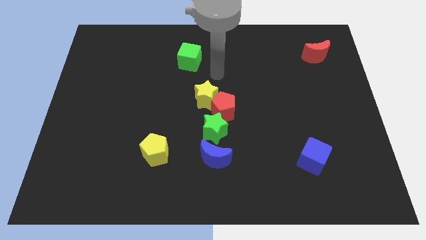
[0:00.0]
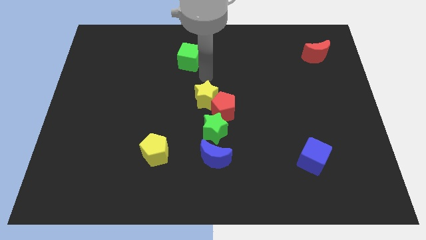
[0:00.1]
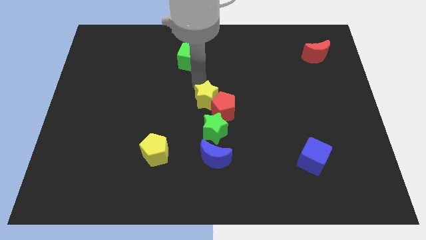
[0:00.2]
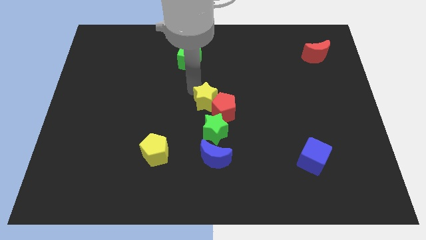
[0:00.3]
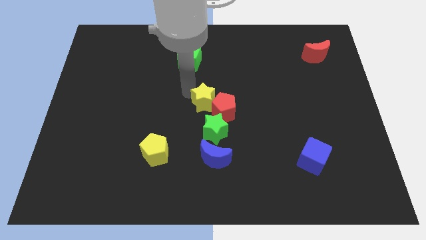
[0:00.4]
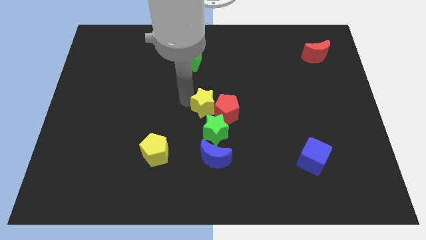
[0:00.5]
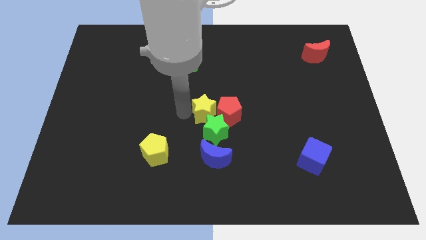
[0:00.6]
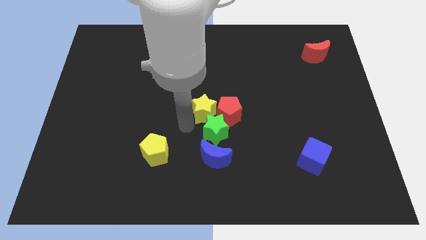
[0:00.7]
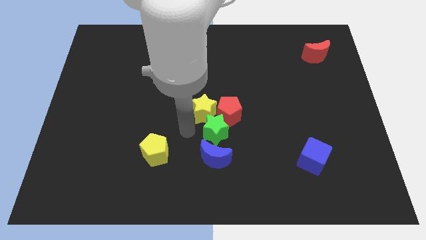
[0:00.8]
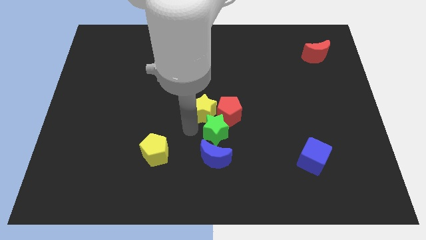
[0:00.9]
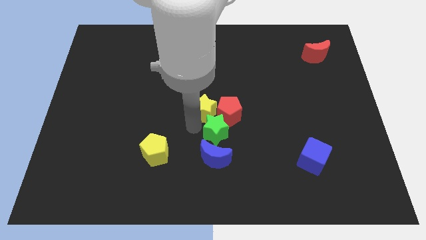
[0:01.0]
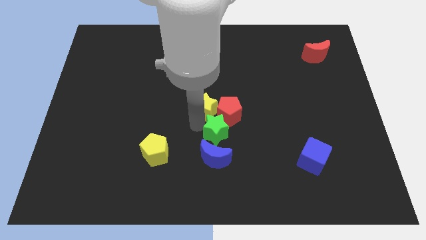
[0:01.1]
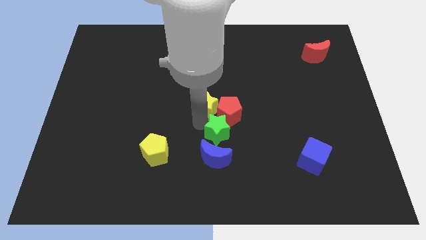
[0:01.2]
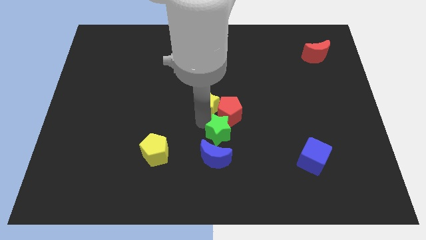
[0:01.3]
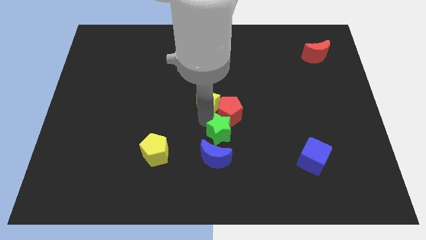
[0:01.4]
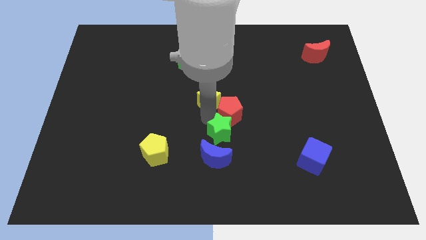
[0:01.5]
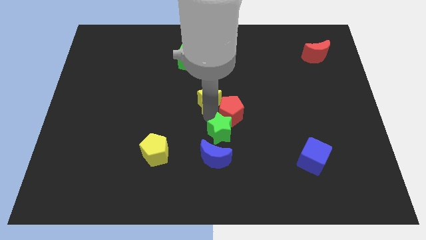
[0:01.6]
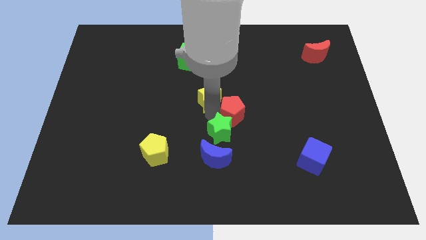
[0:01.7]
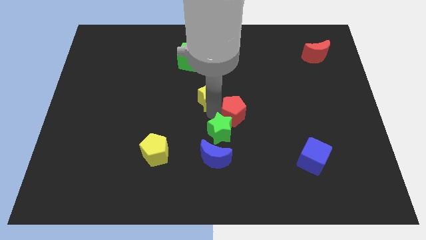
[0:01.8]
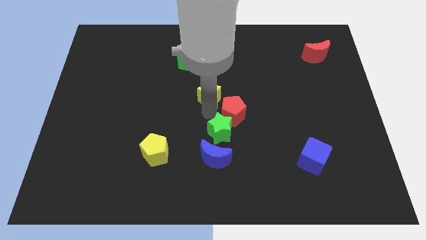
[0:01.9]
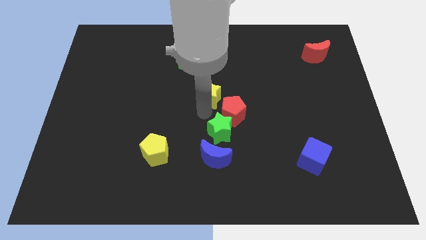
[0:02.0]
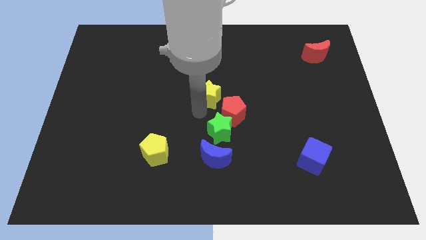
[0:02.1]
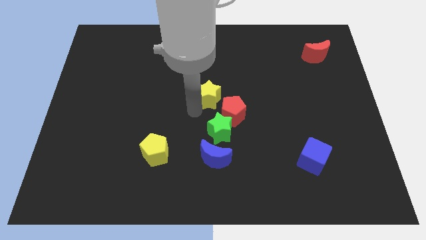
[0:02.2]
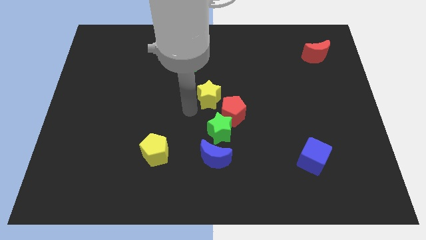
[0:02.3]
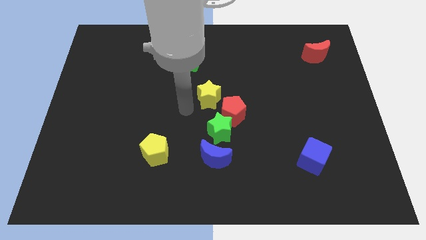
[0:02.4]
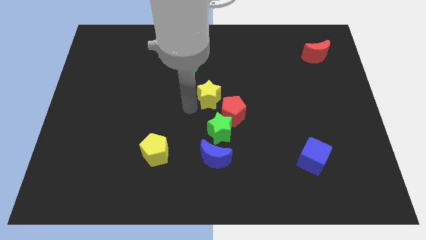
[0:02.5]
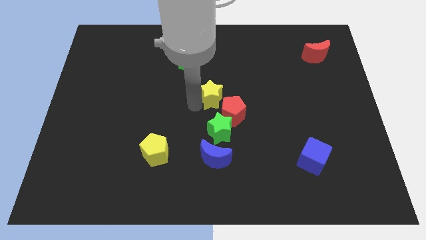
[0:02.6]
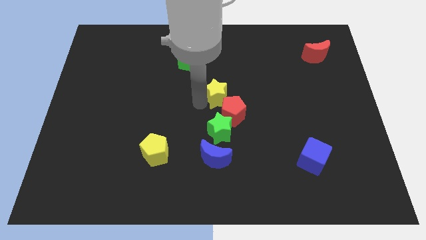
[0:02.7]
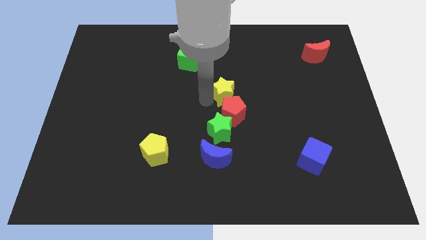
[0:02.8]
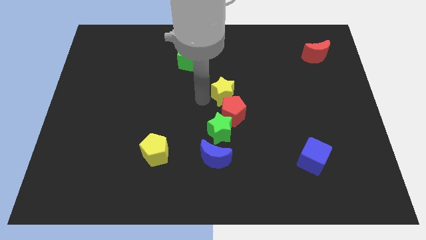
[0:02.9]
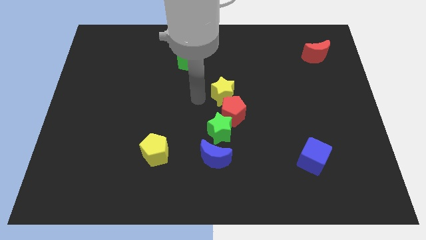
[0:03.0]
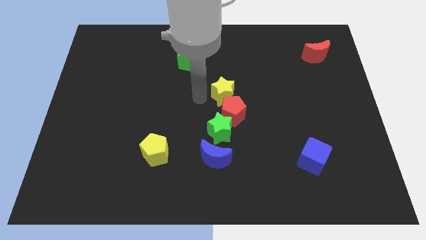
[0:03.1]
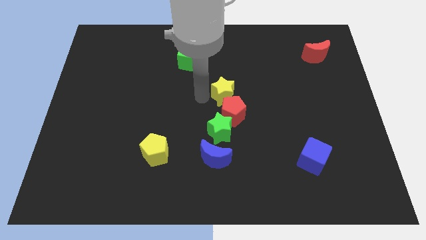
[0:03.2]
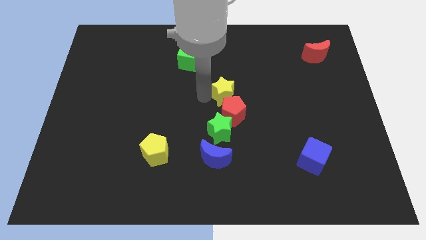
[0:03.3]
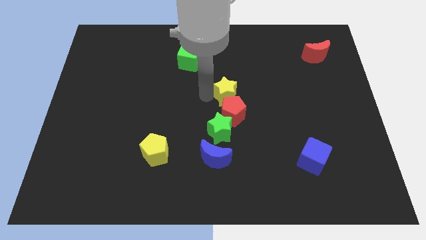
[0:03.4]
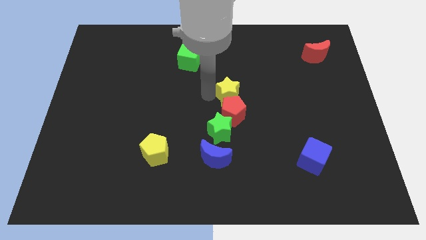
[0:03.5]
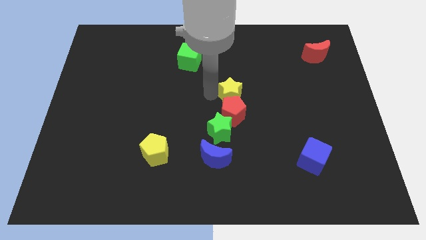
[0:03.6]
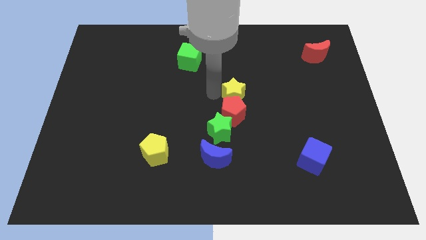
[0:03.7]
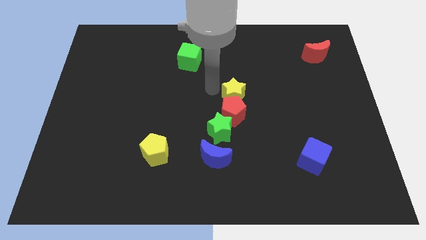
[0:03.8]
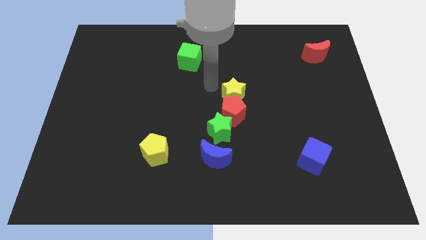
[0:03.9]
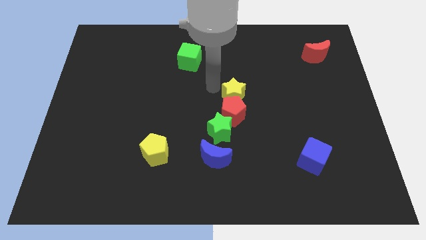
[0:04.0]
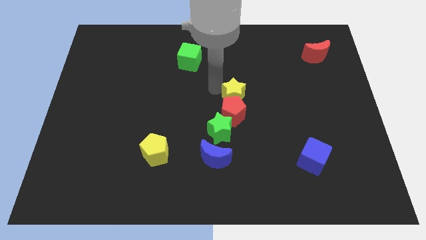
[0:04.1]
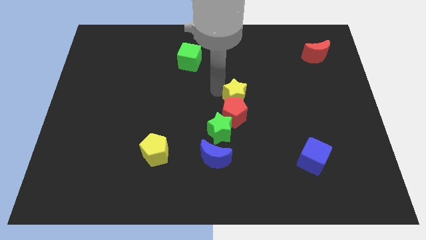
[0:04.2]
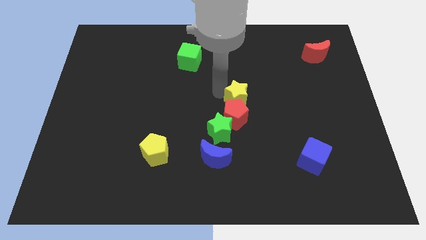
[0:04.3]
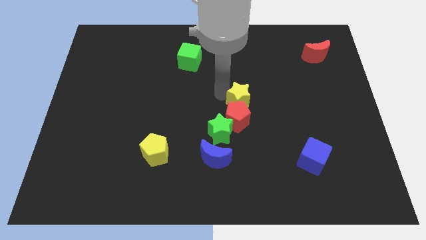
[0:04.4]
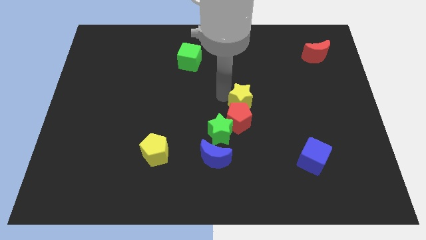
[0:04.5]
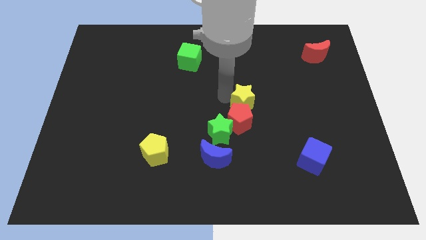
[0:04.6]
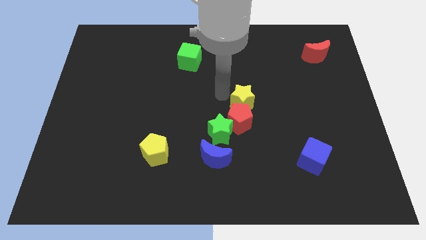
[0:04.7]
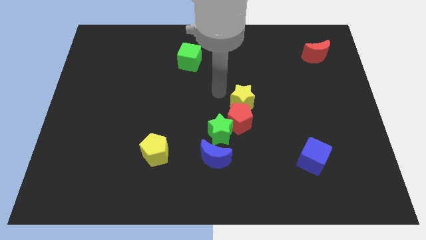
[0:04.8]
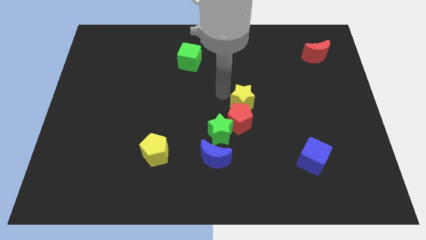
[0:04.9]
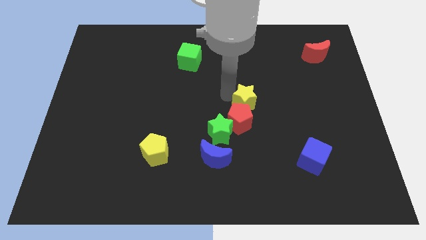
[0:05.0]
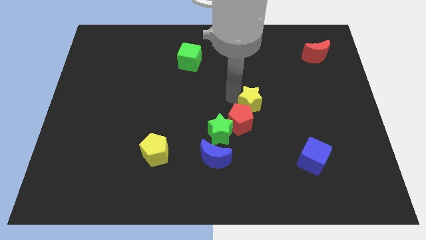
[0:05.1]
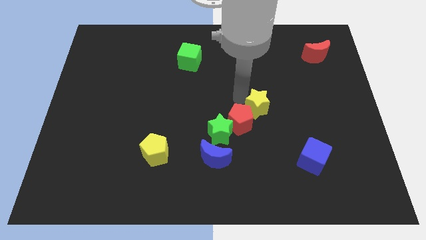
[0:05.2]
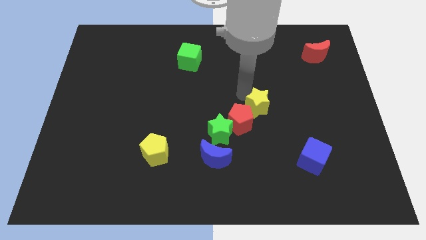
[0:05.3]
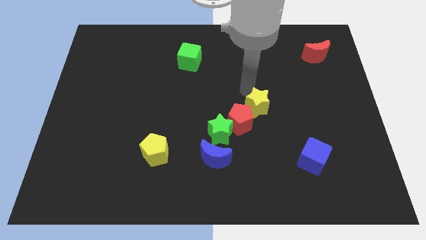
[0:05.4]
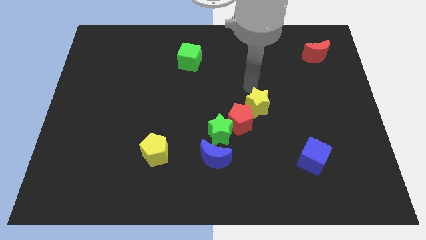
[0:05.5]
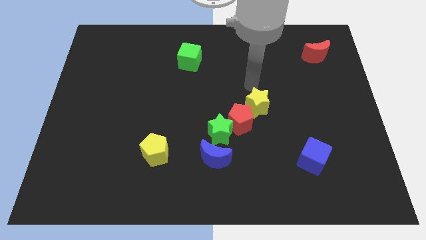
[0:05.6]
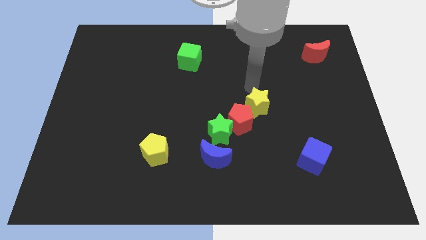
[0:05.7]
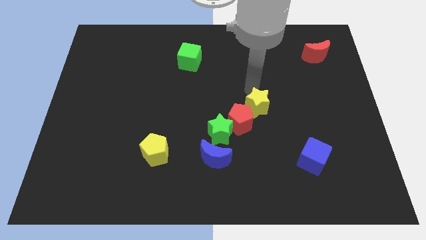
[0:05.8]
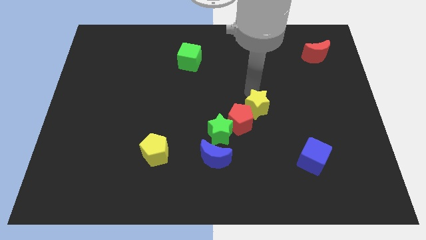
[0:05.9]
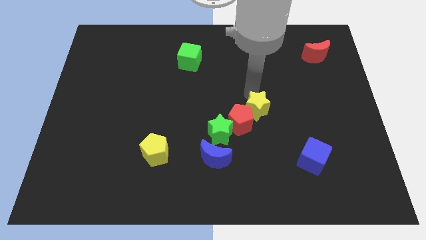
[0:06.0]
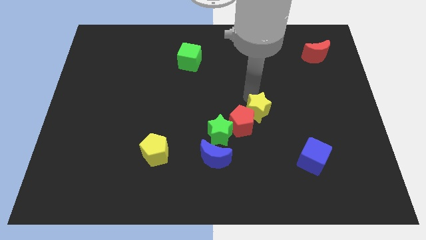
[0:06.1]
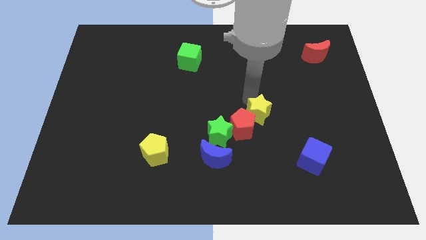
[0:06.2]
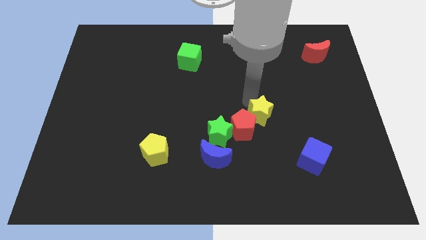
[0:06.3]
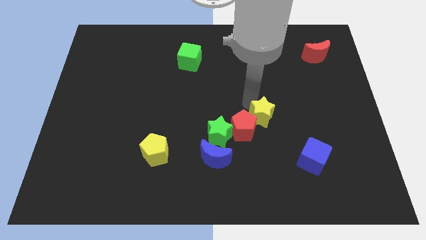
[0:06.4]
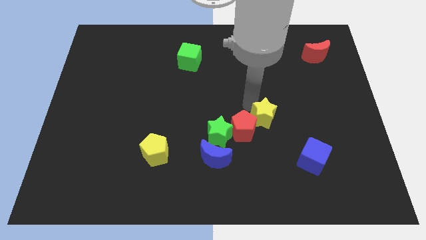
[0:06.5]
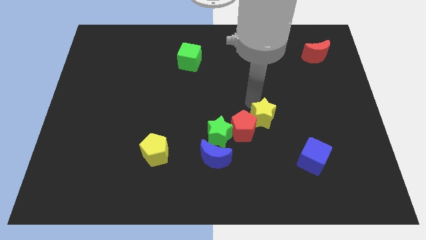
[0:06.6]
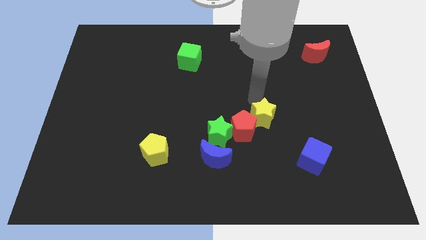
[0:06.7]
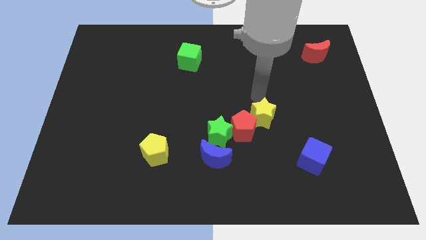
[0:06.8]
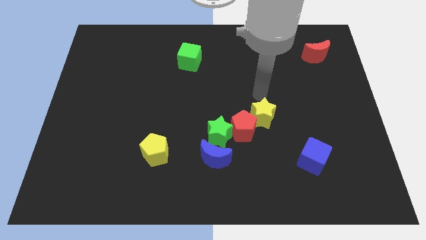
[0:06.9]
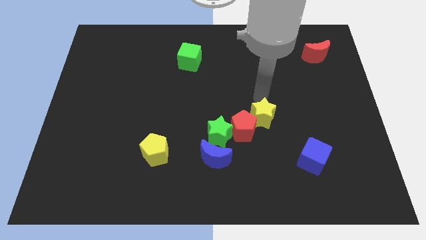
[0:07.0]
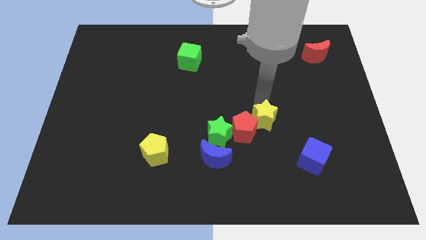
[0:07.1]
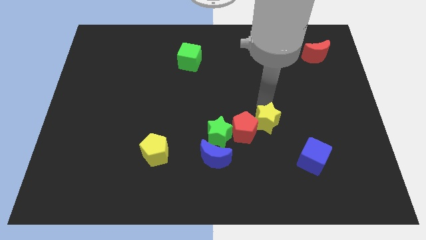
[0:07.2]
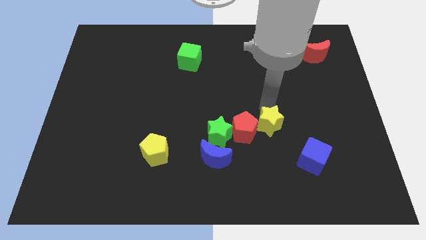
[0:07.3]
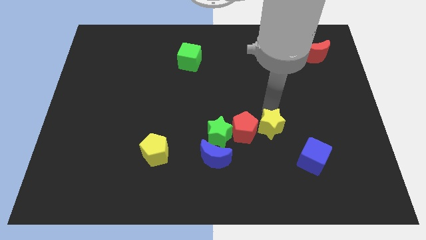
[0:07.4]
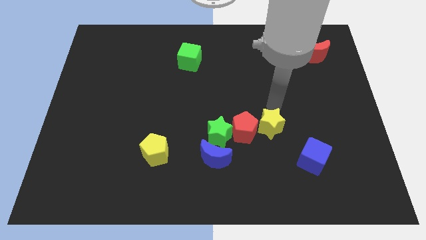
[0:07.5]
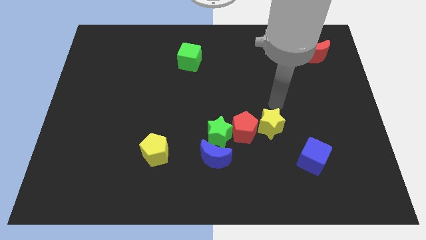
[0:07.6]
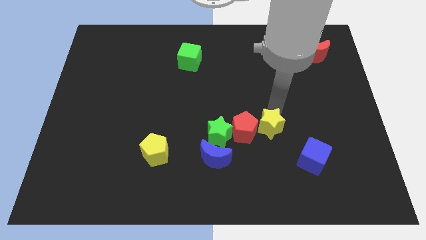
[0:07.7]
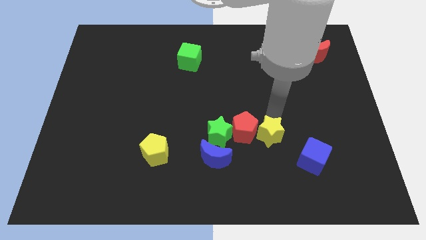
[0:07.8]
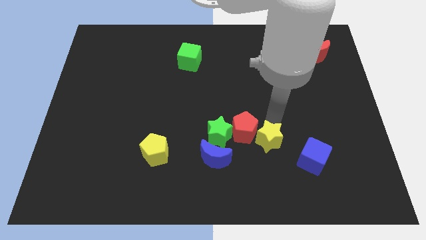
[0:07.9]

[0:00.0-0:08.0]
put the yellow star to the left side of the blue cube
